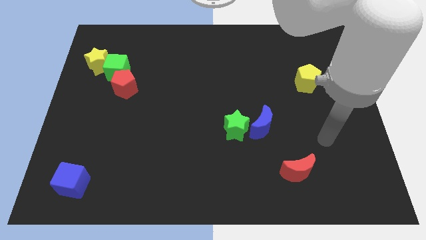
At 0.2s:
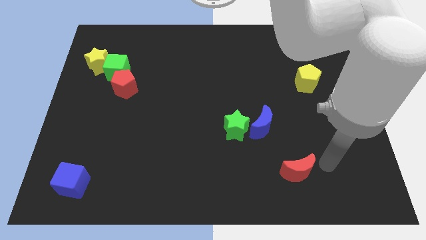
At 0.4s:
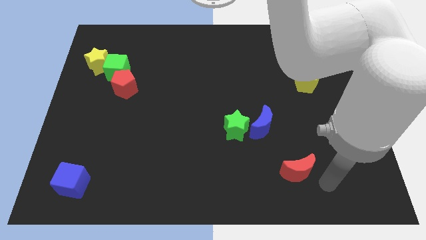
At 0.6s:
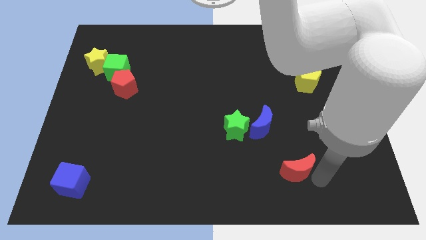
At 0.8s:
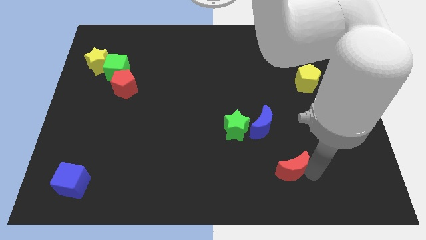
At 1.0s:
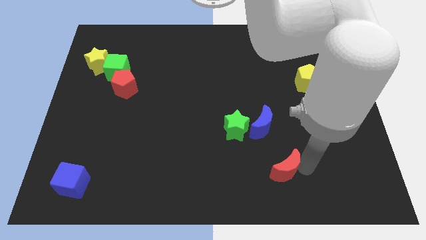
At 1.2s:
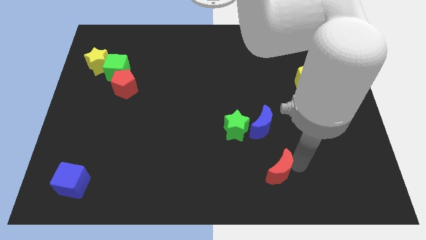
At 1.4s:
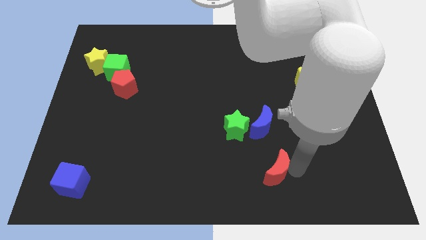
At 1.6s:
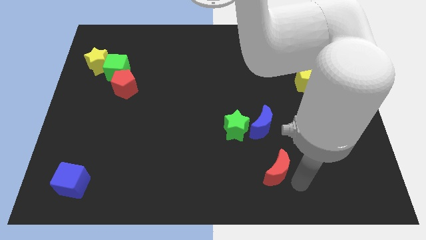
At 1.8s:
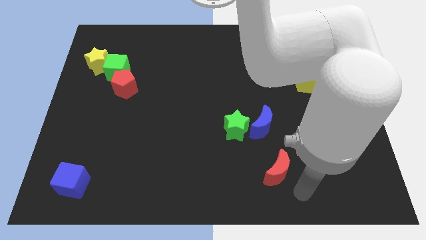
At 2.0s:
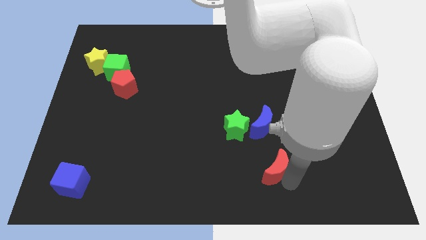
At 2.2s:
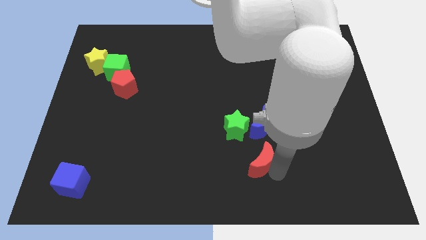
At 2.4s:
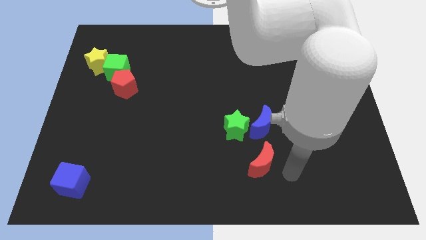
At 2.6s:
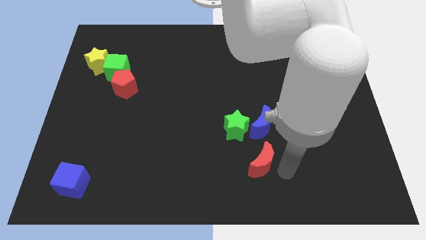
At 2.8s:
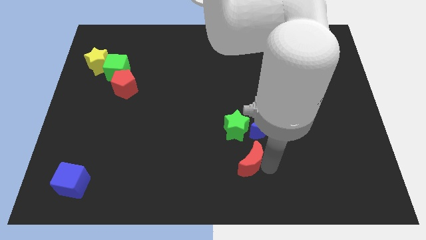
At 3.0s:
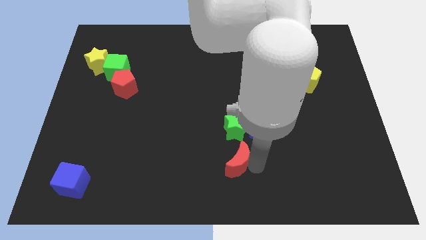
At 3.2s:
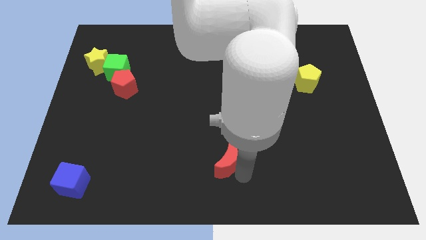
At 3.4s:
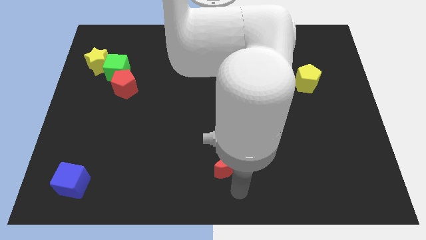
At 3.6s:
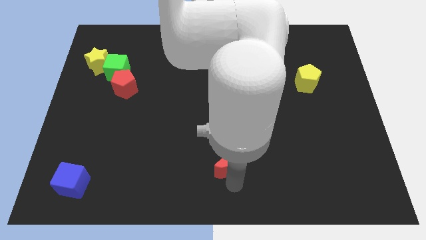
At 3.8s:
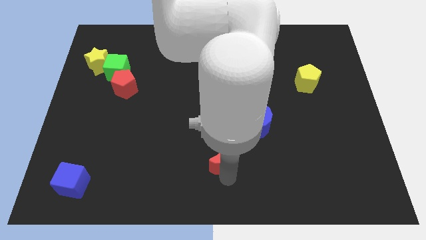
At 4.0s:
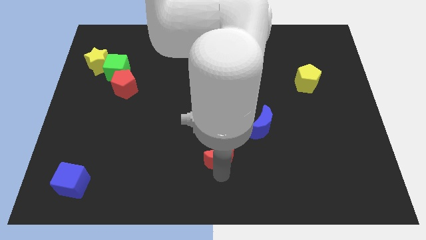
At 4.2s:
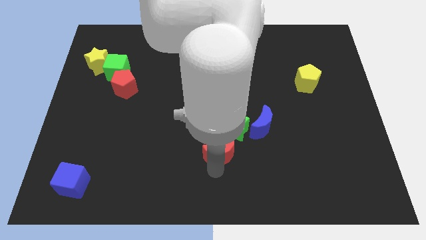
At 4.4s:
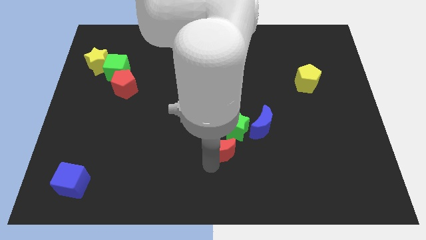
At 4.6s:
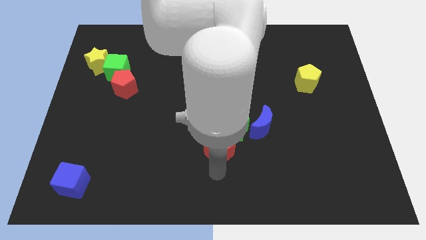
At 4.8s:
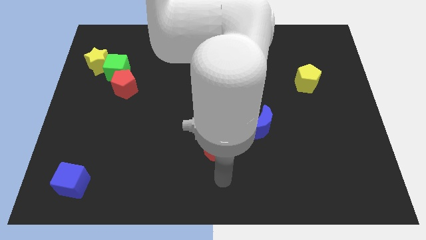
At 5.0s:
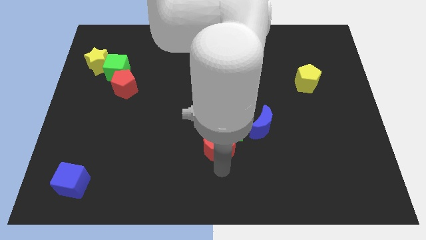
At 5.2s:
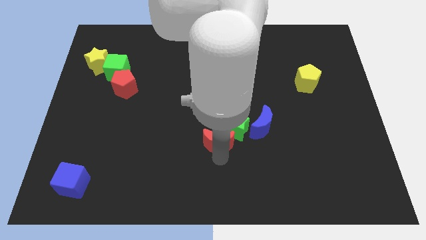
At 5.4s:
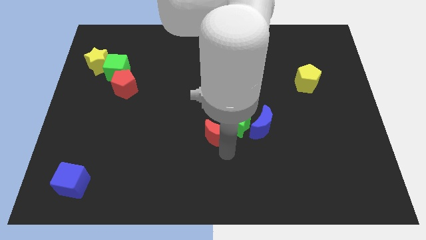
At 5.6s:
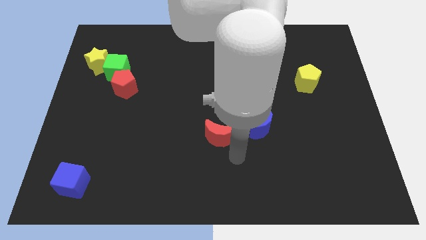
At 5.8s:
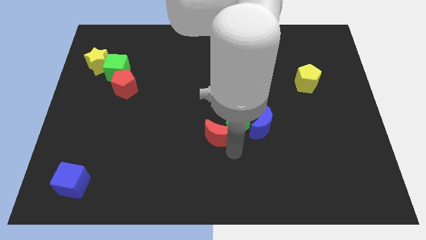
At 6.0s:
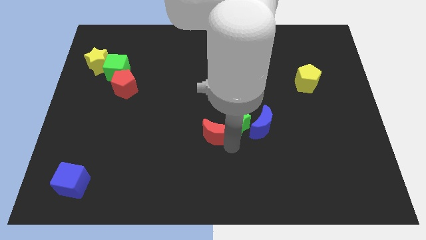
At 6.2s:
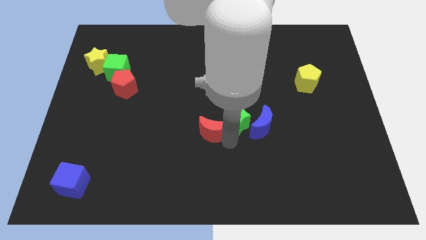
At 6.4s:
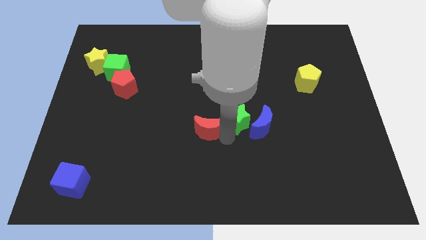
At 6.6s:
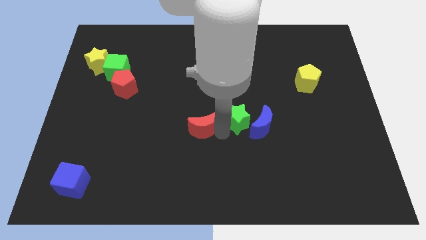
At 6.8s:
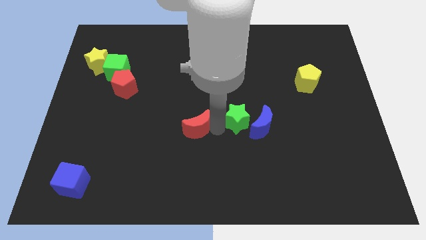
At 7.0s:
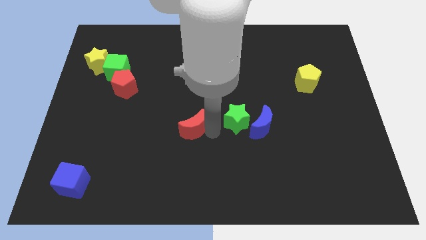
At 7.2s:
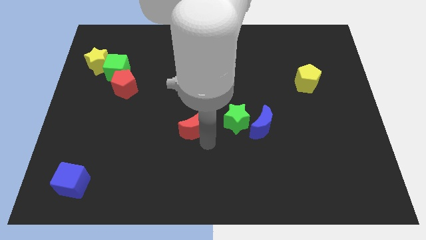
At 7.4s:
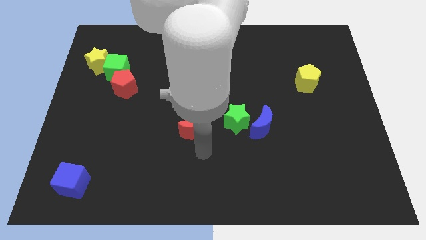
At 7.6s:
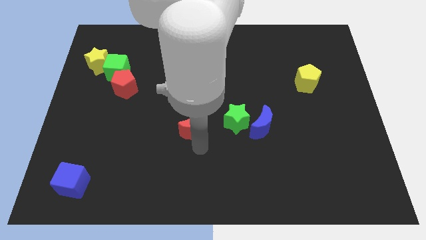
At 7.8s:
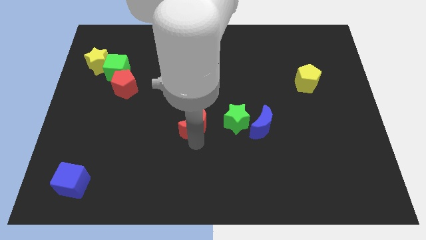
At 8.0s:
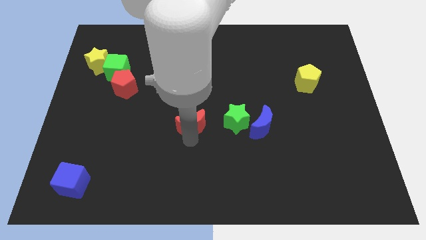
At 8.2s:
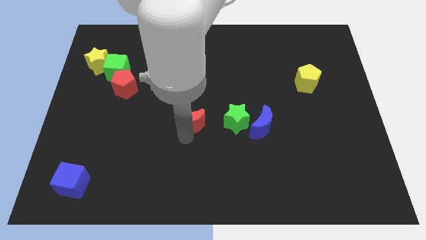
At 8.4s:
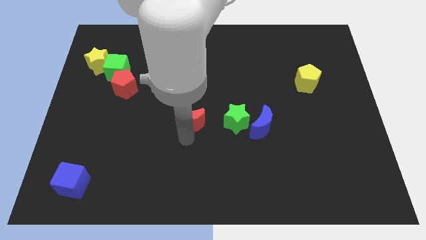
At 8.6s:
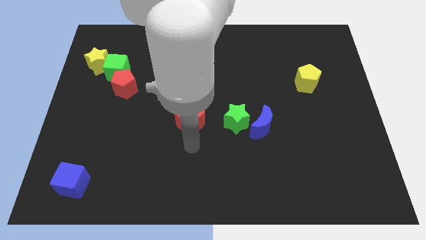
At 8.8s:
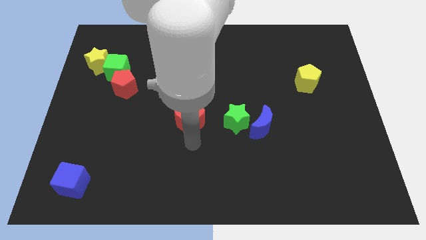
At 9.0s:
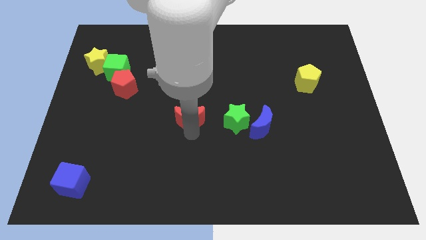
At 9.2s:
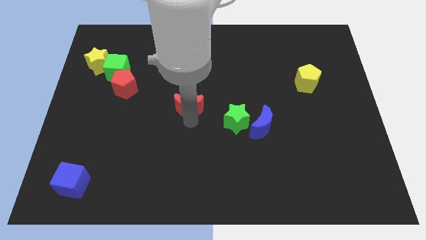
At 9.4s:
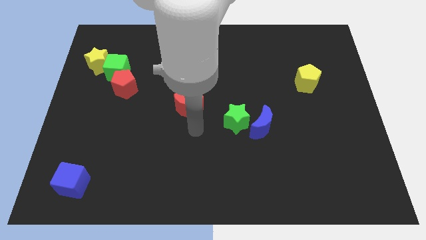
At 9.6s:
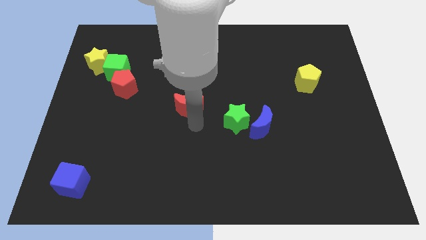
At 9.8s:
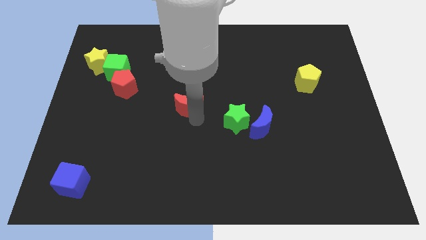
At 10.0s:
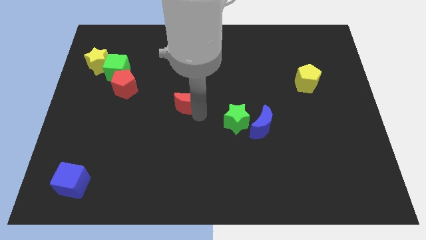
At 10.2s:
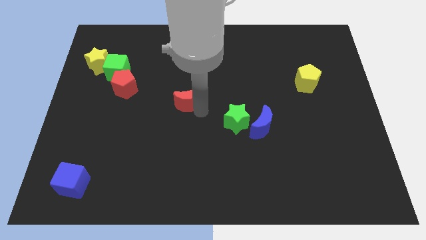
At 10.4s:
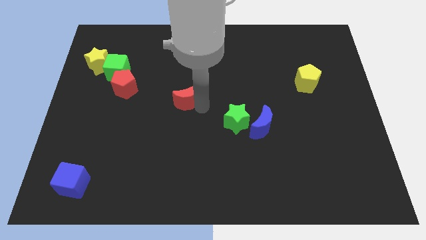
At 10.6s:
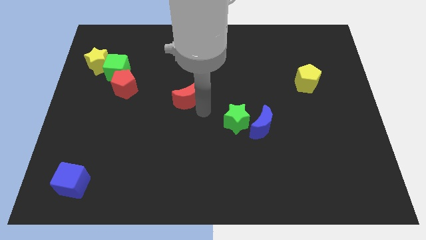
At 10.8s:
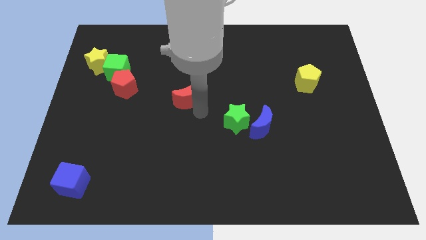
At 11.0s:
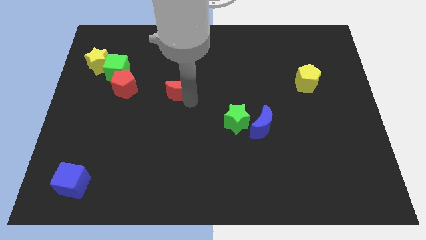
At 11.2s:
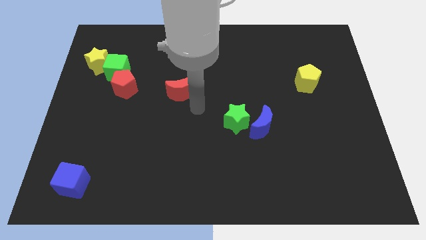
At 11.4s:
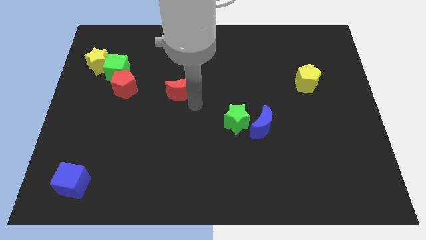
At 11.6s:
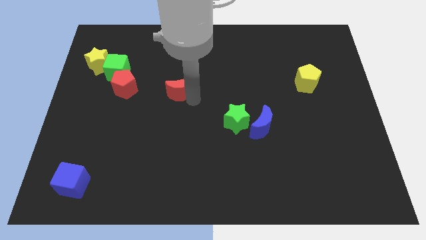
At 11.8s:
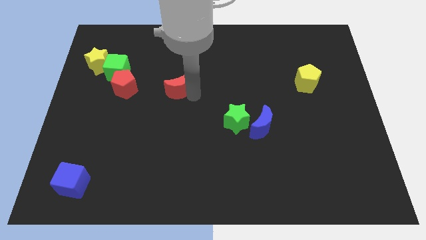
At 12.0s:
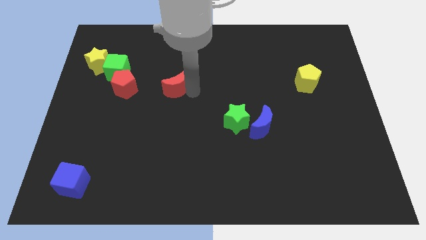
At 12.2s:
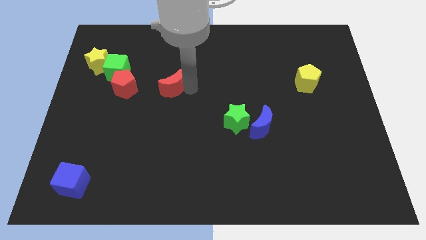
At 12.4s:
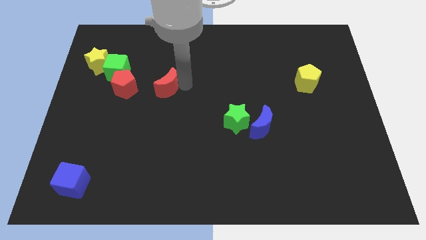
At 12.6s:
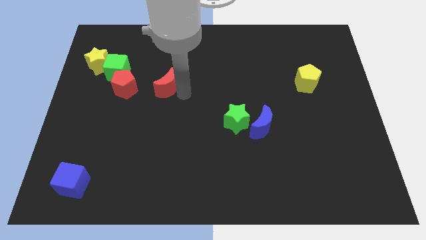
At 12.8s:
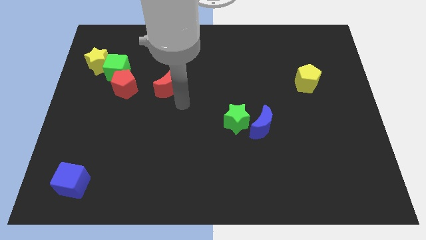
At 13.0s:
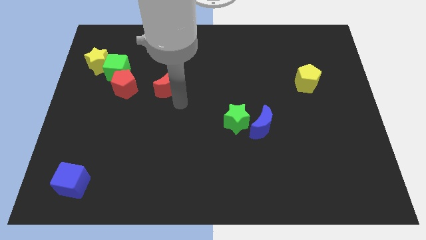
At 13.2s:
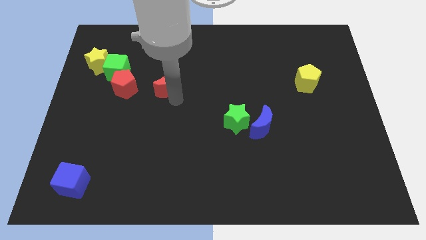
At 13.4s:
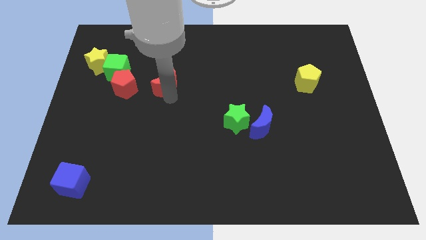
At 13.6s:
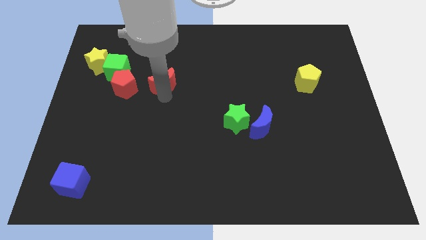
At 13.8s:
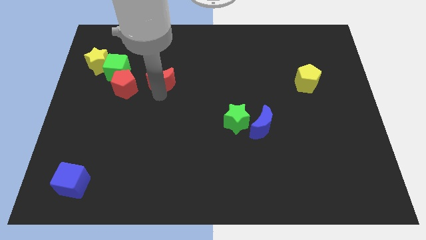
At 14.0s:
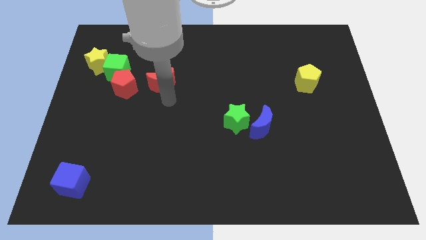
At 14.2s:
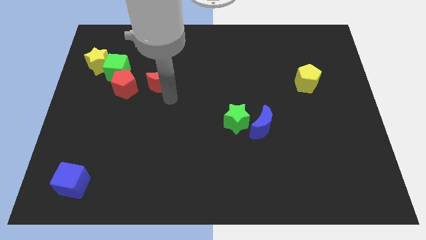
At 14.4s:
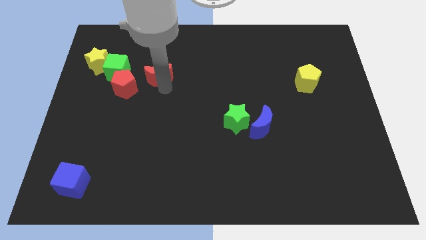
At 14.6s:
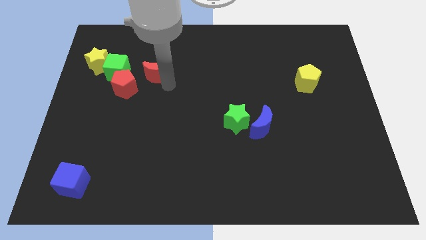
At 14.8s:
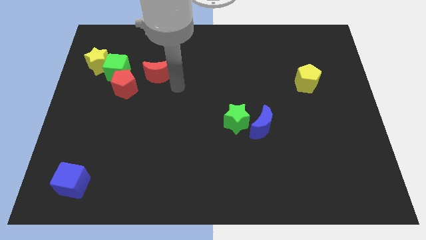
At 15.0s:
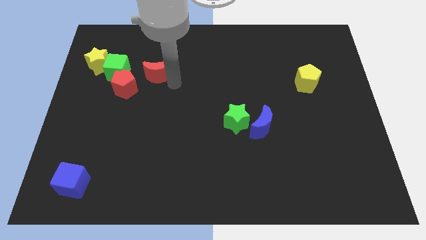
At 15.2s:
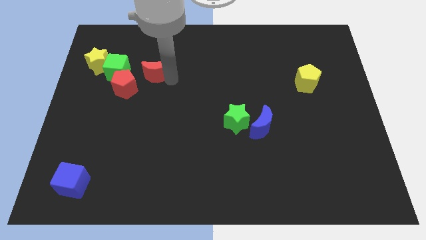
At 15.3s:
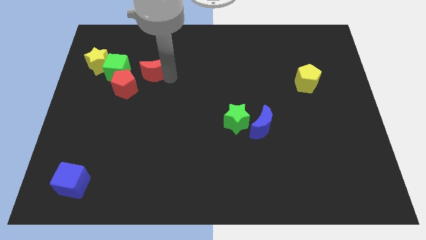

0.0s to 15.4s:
slide the red moon to the right side of the yellow star
